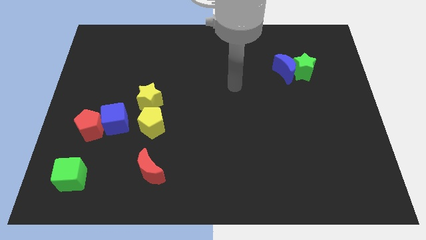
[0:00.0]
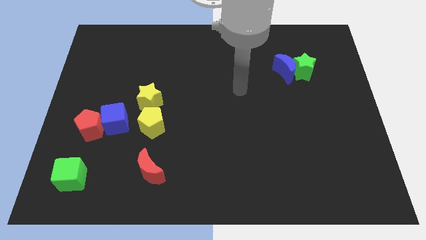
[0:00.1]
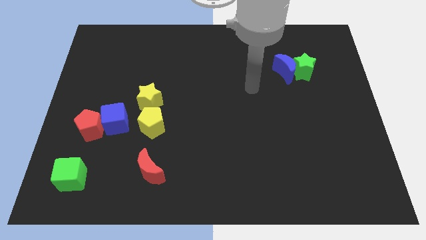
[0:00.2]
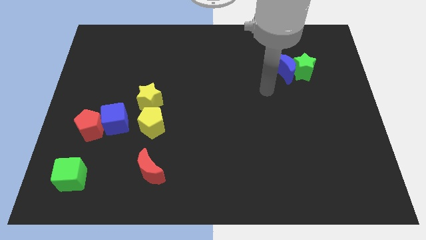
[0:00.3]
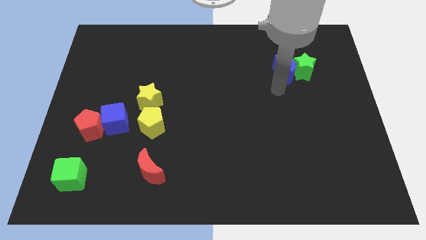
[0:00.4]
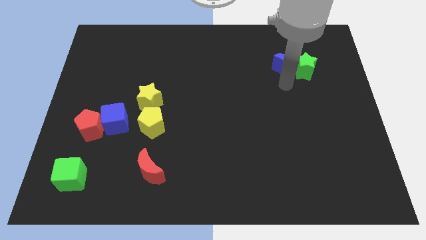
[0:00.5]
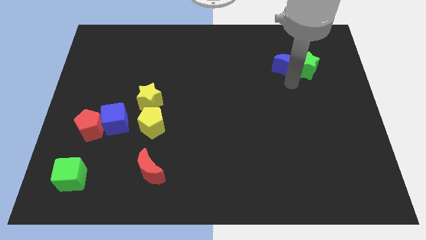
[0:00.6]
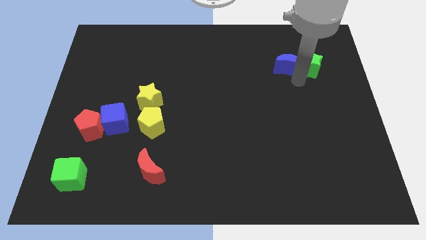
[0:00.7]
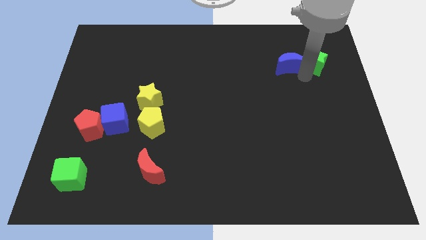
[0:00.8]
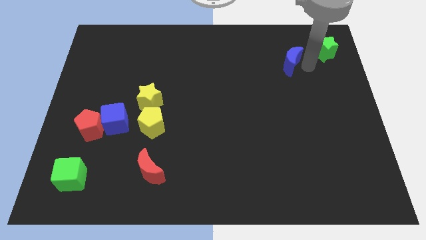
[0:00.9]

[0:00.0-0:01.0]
move the blue moon away from the green star

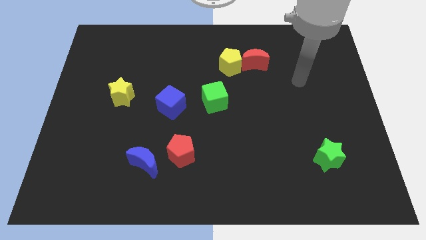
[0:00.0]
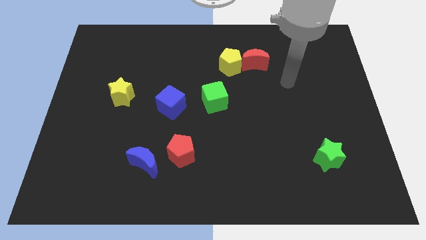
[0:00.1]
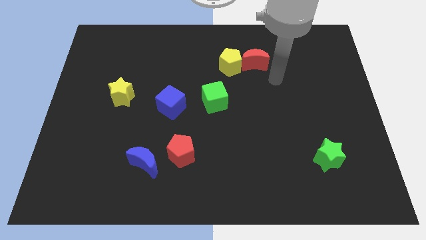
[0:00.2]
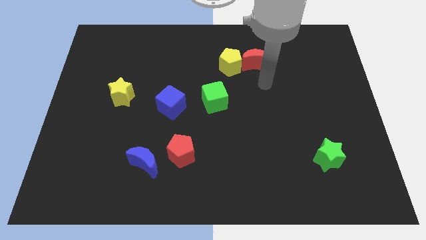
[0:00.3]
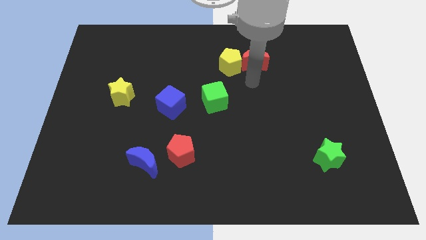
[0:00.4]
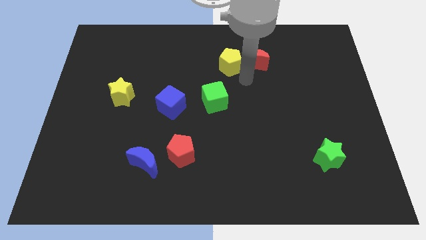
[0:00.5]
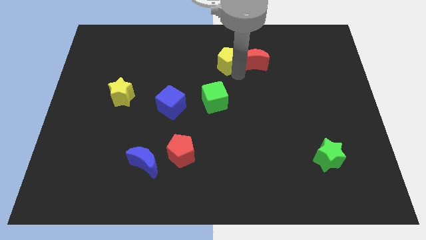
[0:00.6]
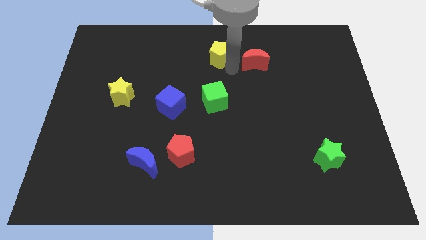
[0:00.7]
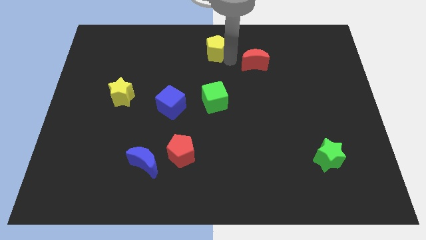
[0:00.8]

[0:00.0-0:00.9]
move the red moon away from the yellow pentagon

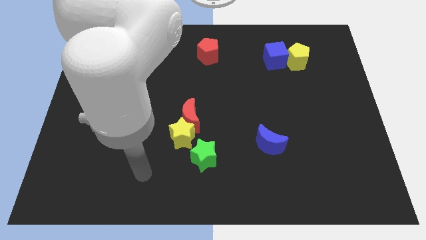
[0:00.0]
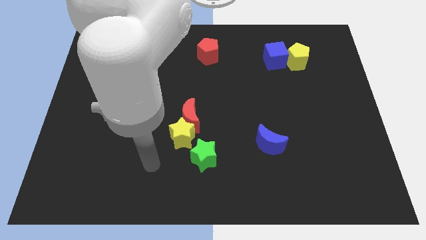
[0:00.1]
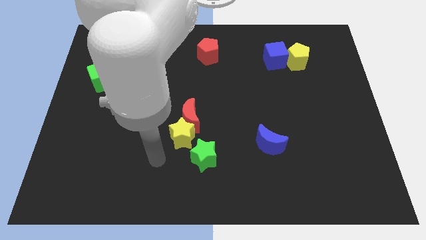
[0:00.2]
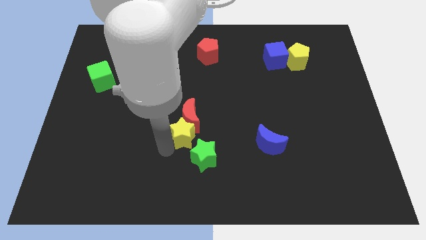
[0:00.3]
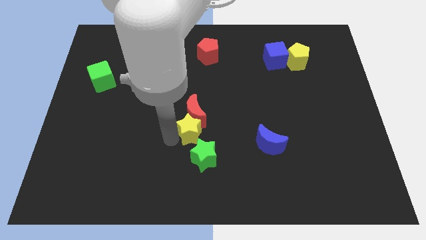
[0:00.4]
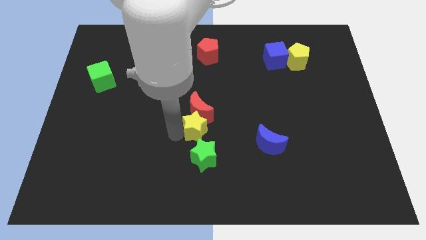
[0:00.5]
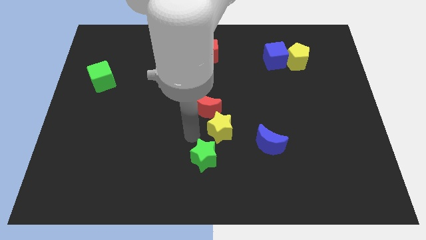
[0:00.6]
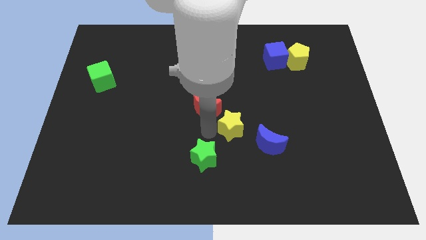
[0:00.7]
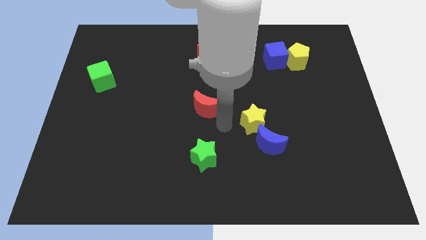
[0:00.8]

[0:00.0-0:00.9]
pull the red moon apart from the yellow star

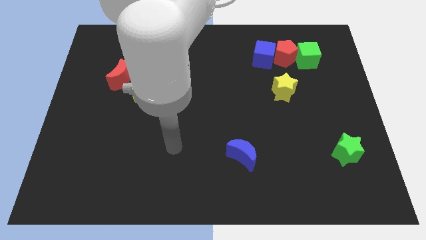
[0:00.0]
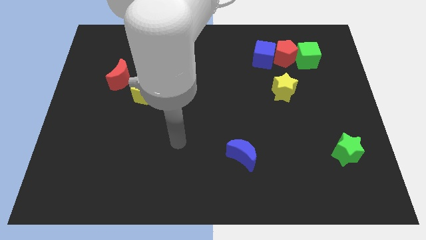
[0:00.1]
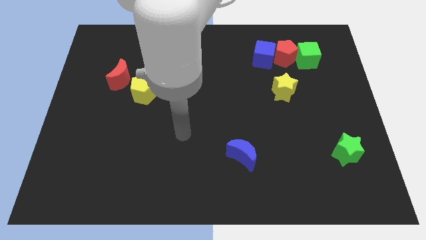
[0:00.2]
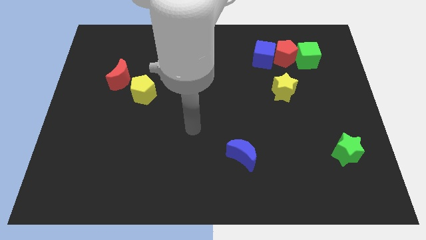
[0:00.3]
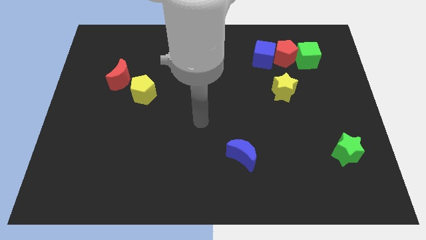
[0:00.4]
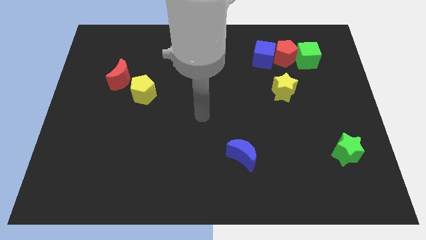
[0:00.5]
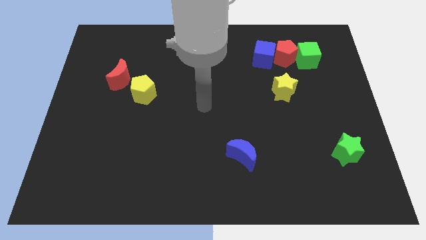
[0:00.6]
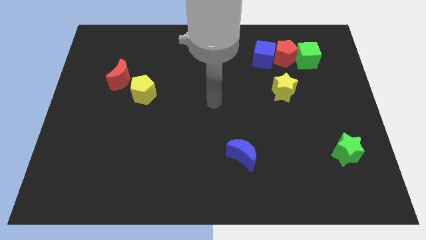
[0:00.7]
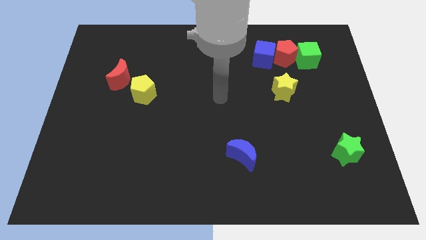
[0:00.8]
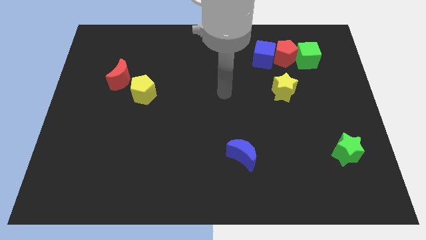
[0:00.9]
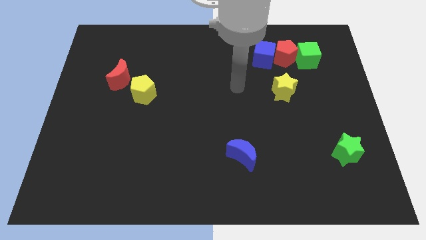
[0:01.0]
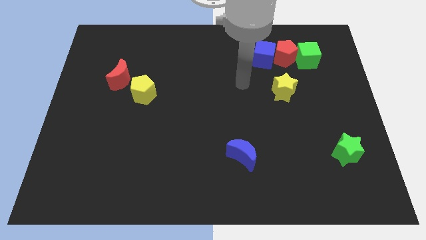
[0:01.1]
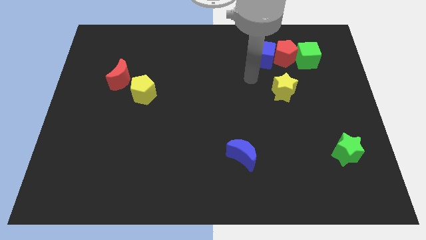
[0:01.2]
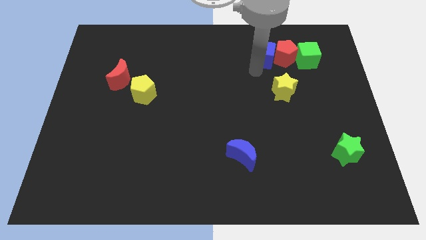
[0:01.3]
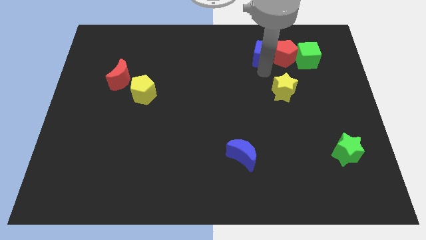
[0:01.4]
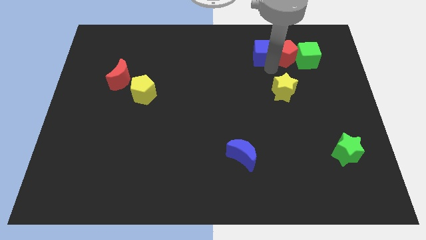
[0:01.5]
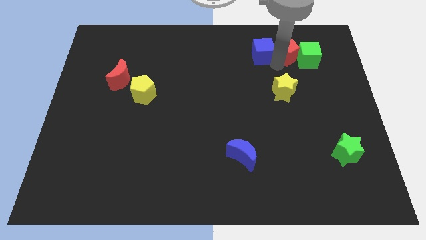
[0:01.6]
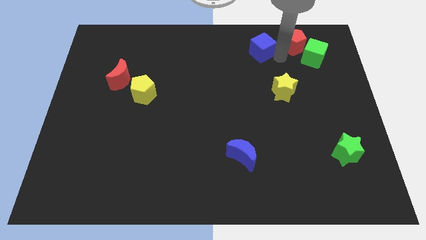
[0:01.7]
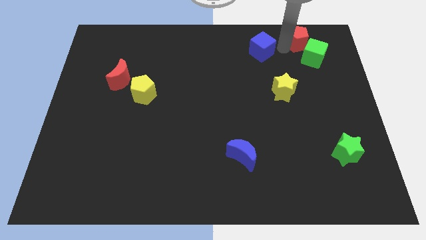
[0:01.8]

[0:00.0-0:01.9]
separate the blue cube from the red pentagon

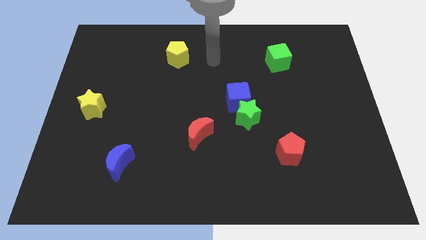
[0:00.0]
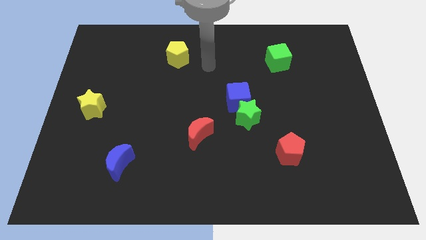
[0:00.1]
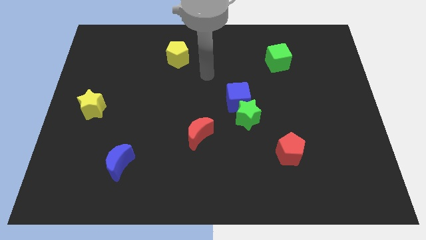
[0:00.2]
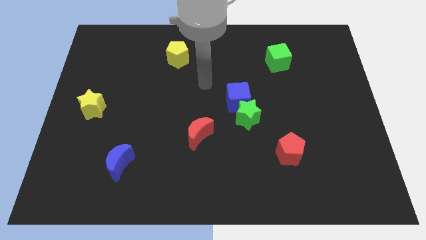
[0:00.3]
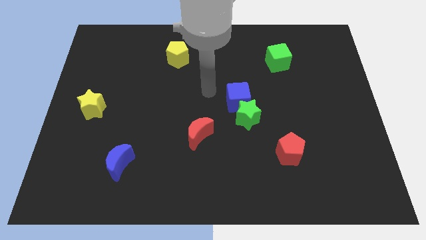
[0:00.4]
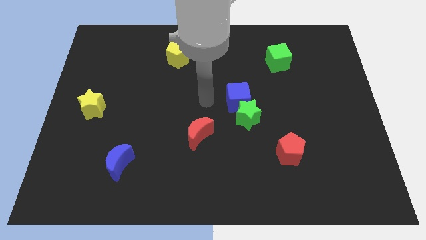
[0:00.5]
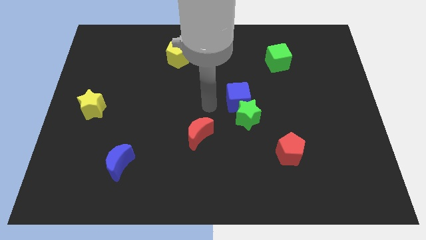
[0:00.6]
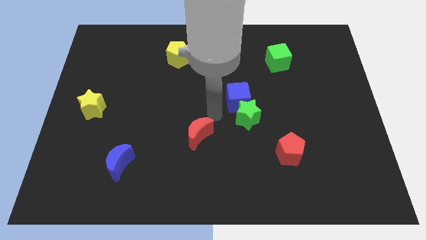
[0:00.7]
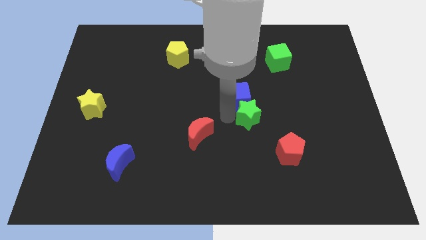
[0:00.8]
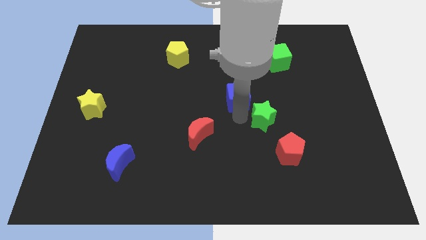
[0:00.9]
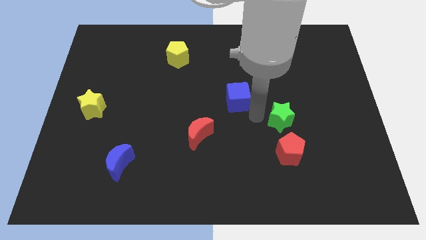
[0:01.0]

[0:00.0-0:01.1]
move the blue cube away from the green star

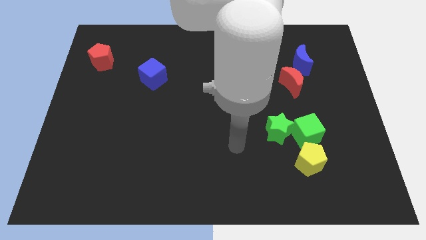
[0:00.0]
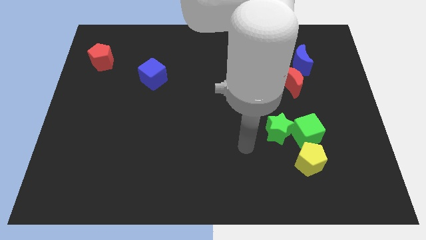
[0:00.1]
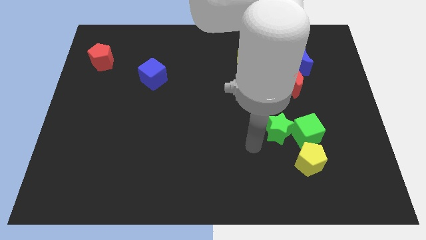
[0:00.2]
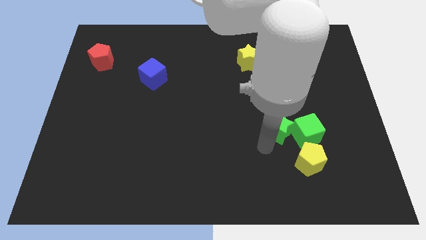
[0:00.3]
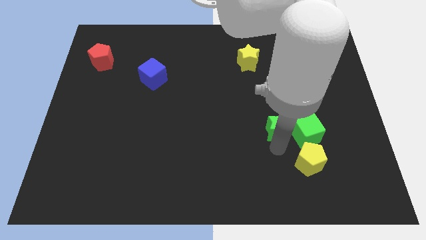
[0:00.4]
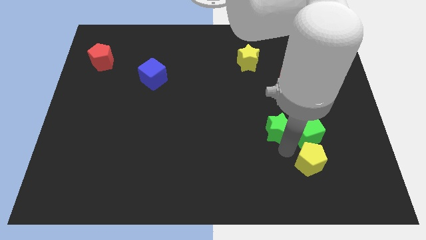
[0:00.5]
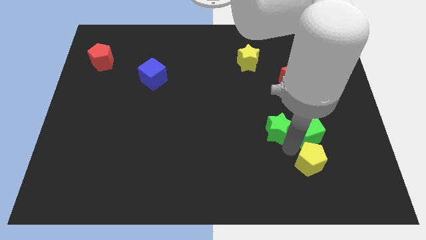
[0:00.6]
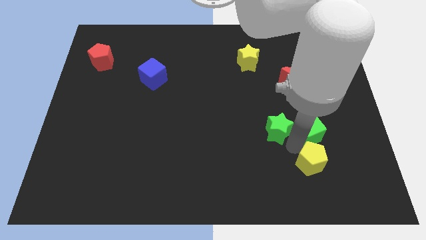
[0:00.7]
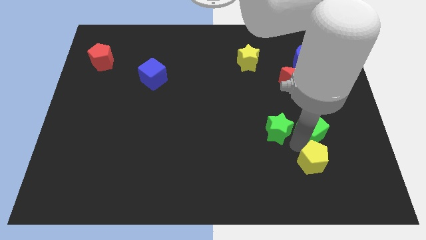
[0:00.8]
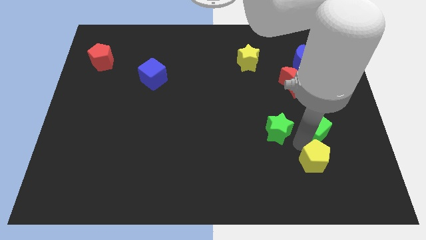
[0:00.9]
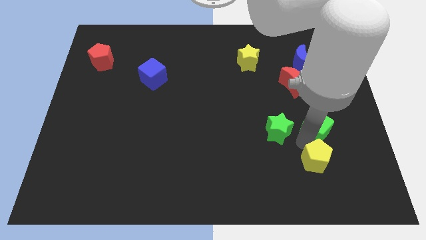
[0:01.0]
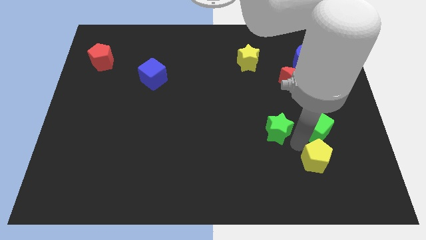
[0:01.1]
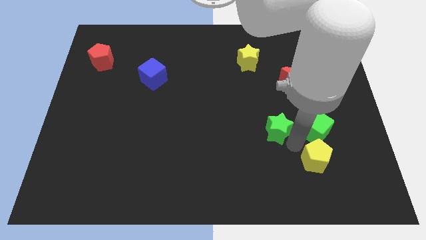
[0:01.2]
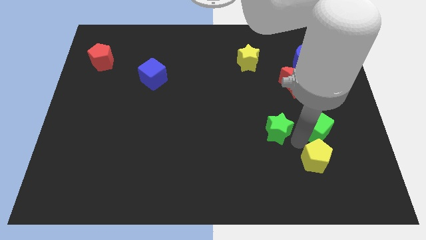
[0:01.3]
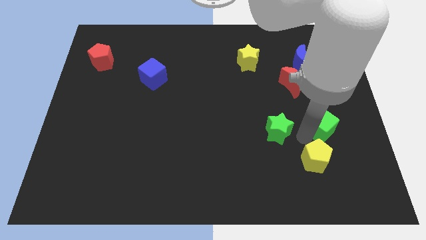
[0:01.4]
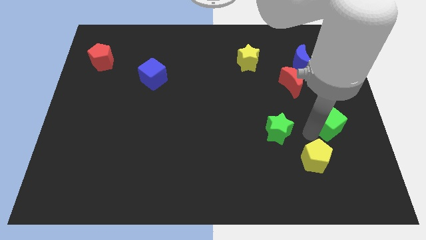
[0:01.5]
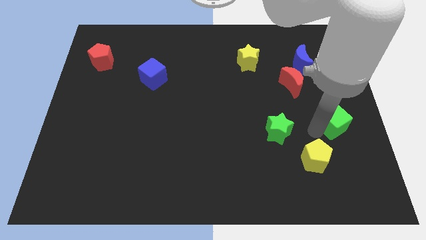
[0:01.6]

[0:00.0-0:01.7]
pull the green cube apart from the green star and yellow pentagon

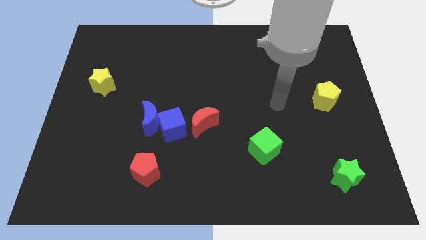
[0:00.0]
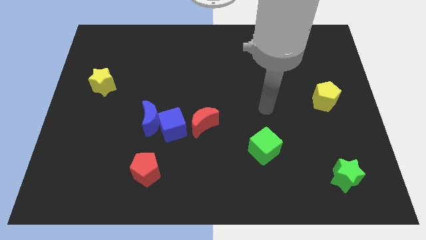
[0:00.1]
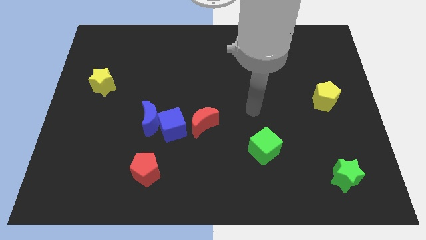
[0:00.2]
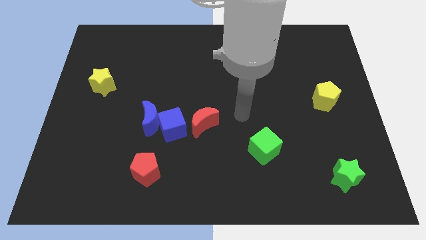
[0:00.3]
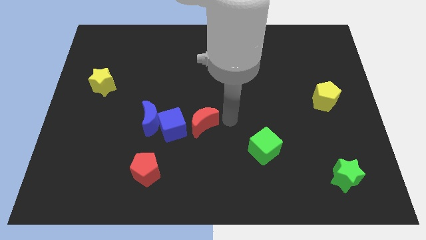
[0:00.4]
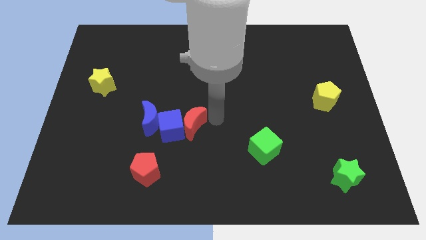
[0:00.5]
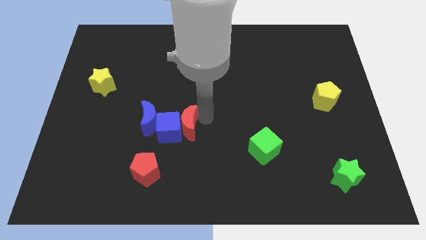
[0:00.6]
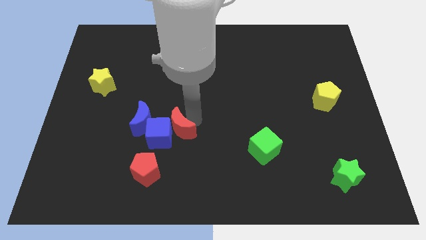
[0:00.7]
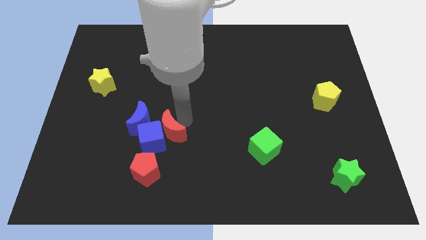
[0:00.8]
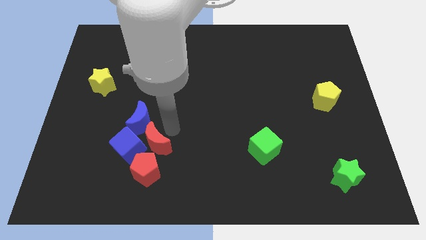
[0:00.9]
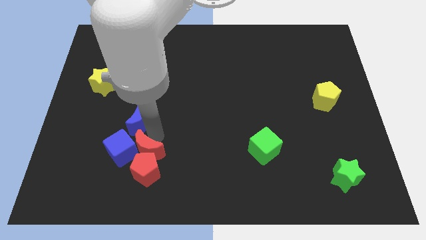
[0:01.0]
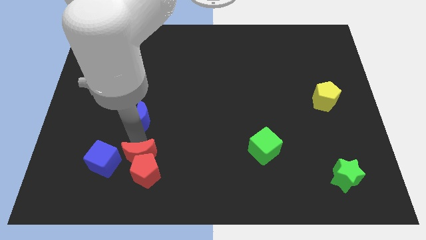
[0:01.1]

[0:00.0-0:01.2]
separate the blue moon from the blue cube

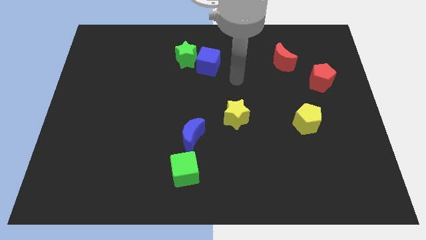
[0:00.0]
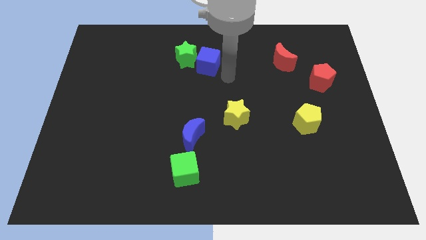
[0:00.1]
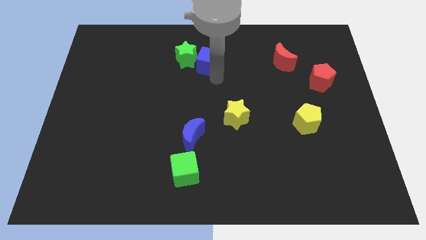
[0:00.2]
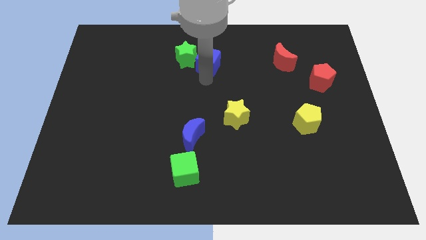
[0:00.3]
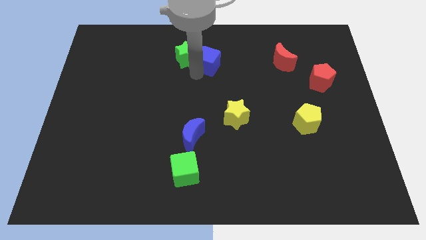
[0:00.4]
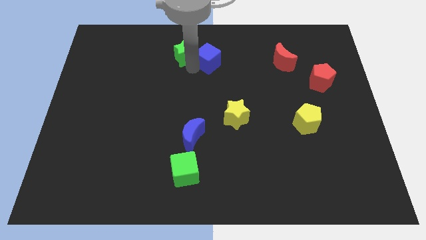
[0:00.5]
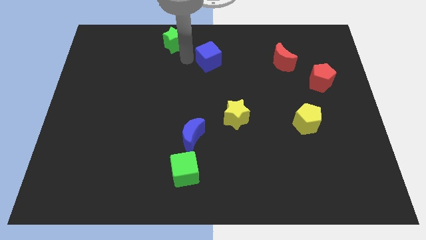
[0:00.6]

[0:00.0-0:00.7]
pull the blue cube apart from the green star

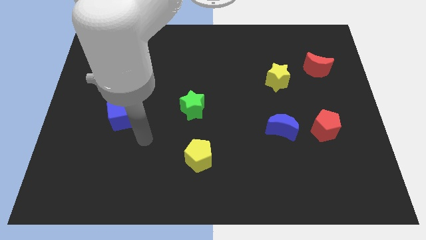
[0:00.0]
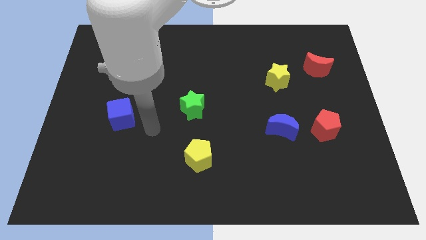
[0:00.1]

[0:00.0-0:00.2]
pull the red pentagon apart from the blue moon
